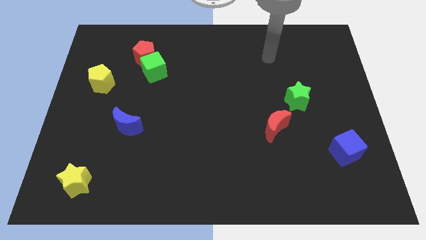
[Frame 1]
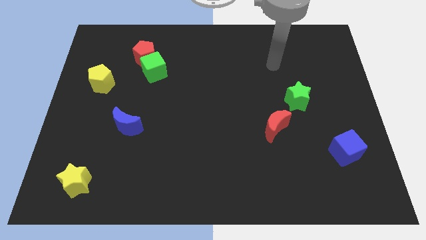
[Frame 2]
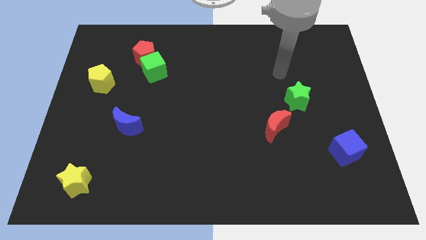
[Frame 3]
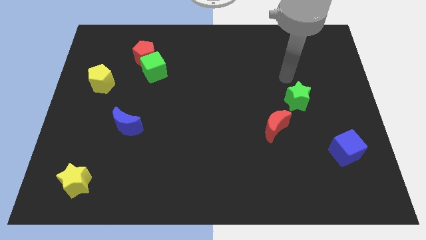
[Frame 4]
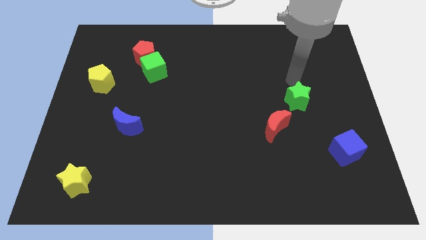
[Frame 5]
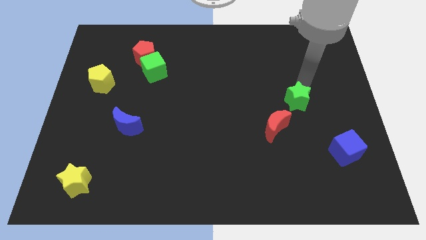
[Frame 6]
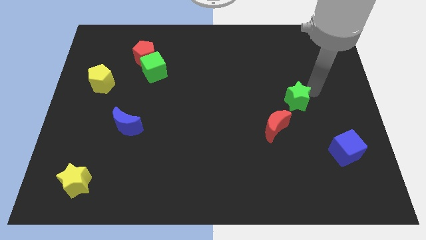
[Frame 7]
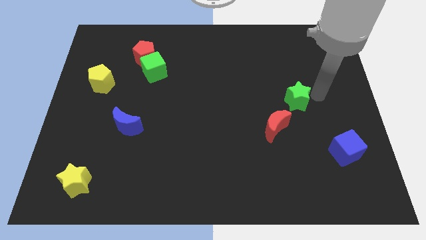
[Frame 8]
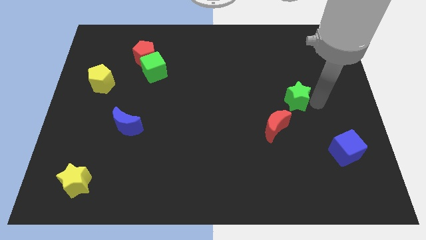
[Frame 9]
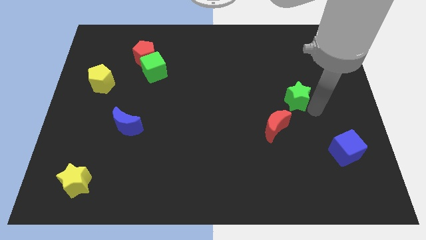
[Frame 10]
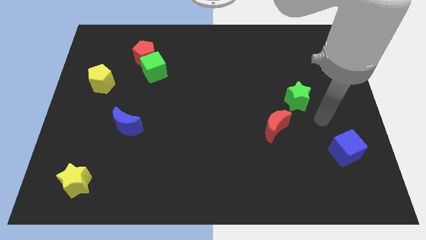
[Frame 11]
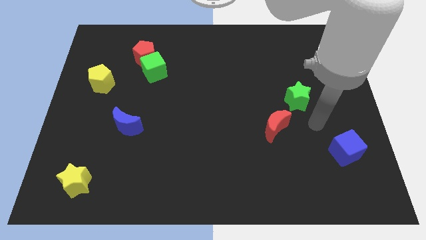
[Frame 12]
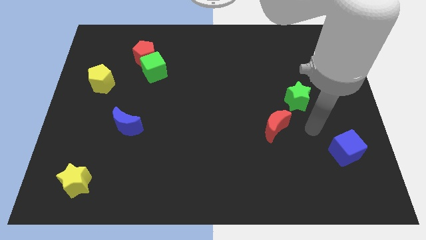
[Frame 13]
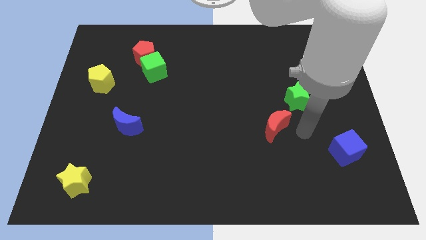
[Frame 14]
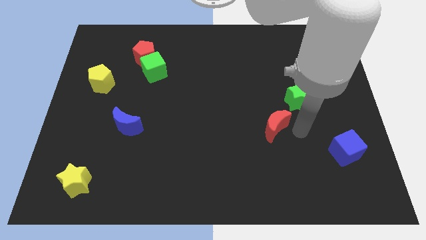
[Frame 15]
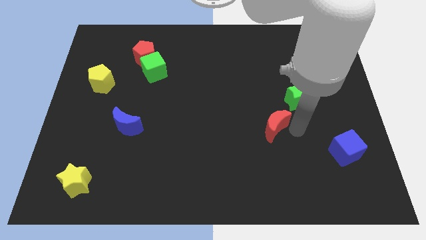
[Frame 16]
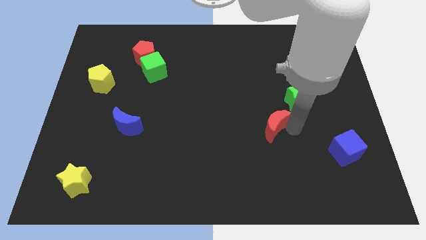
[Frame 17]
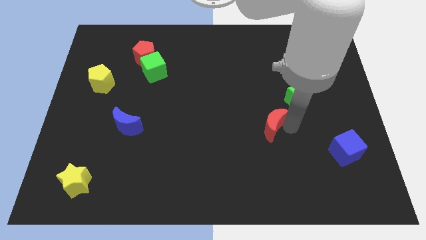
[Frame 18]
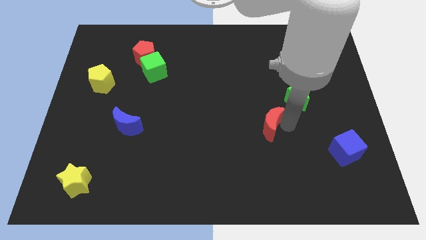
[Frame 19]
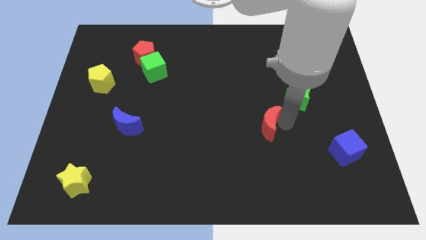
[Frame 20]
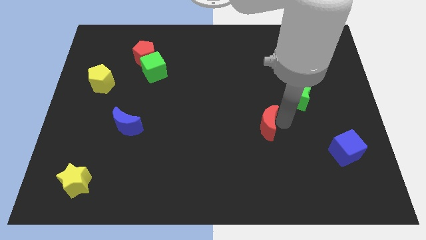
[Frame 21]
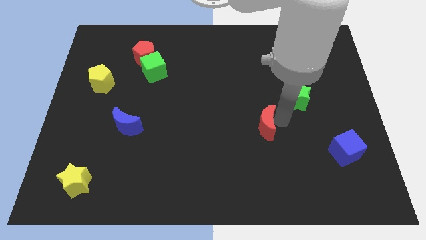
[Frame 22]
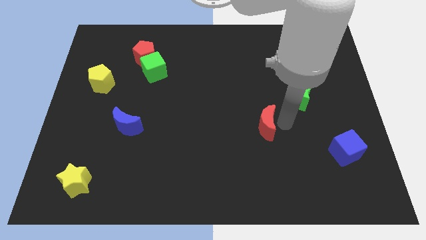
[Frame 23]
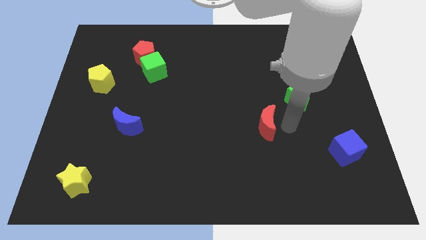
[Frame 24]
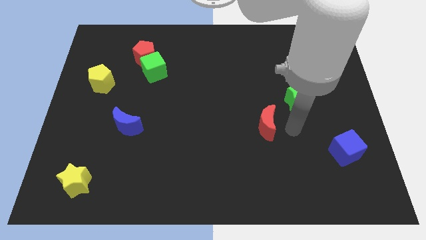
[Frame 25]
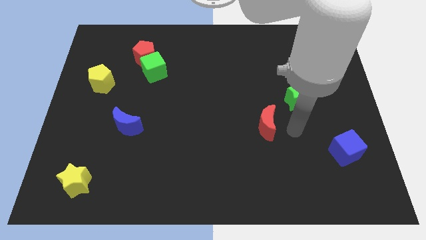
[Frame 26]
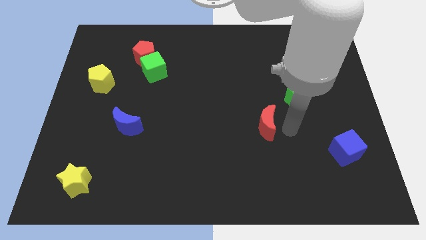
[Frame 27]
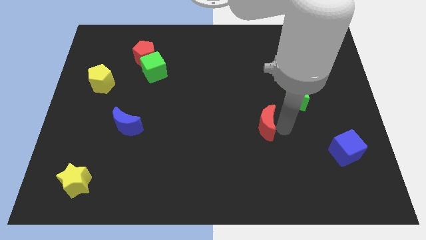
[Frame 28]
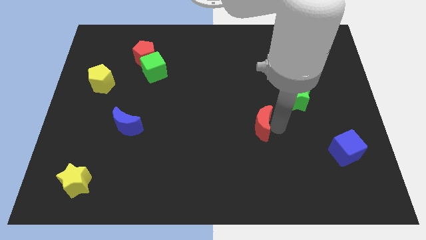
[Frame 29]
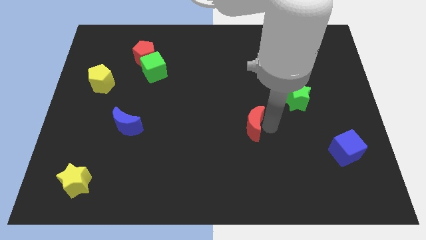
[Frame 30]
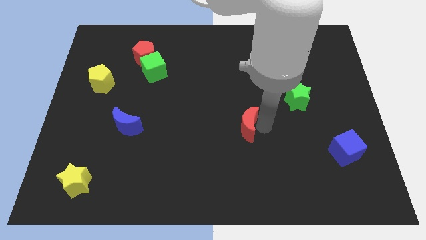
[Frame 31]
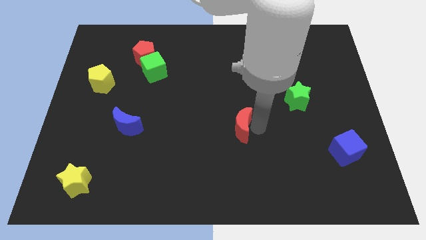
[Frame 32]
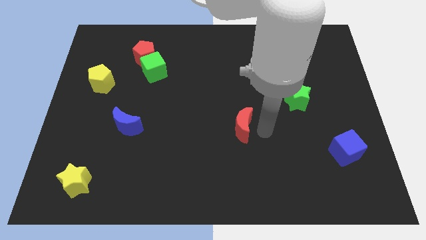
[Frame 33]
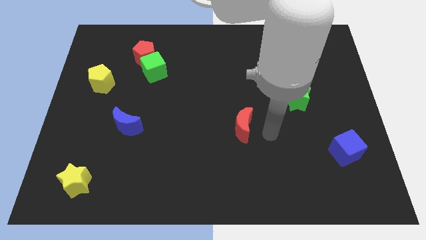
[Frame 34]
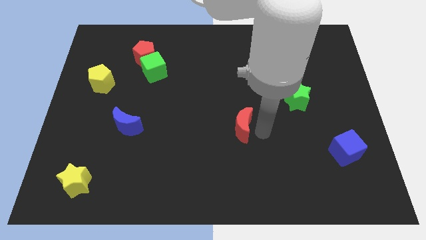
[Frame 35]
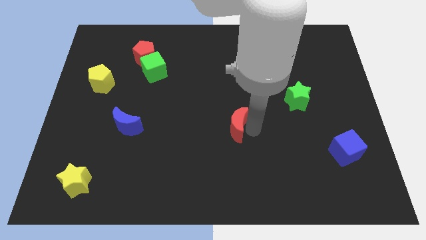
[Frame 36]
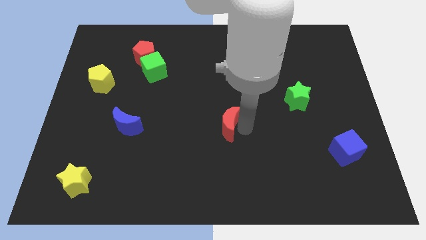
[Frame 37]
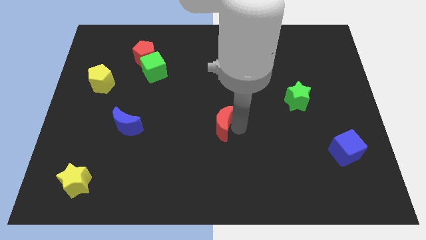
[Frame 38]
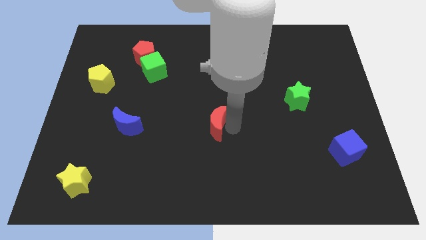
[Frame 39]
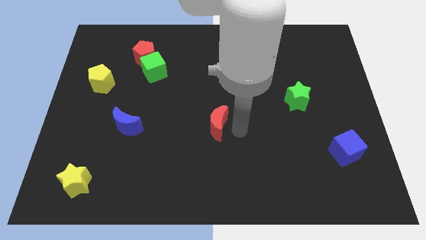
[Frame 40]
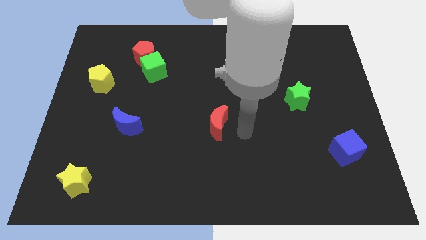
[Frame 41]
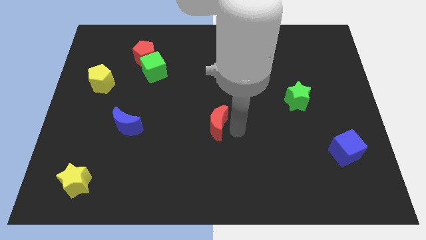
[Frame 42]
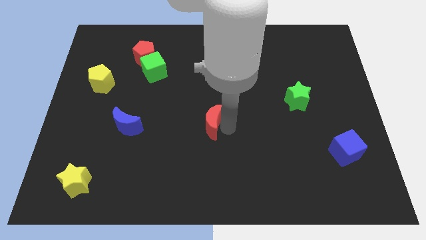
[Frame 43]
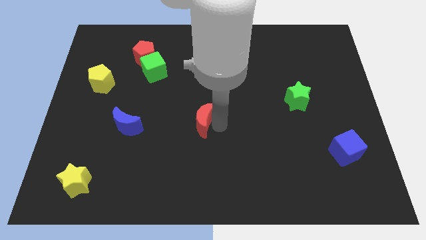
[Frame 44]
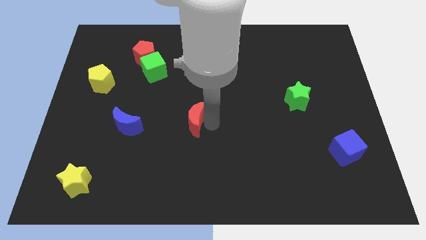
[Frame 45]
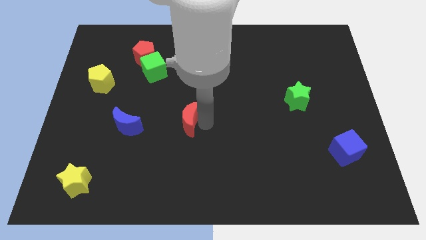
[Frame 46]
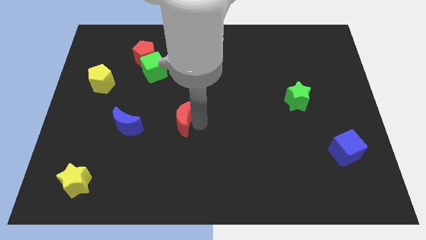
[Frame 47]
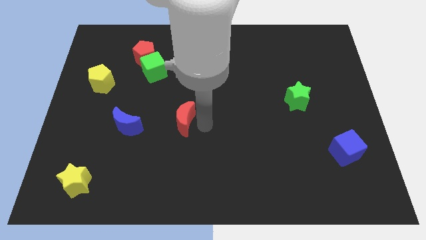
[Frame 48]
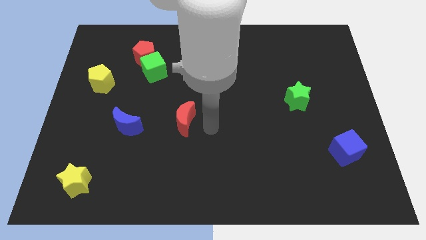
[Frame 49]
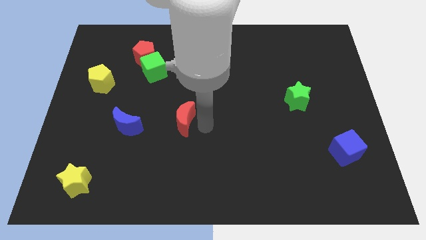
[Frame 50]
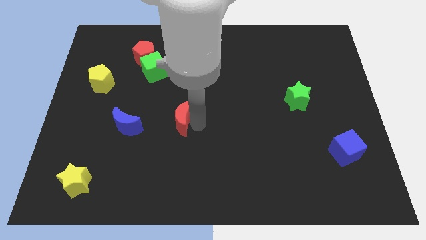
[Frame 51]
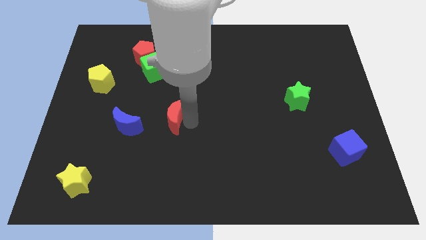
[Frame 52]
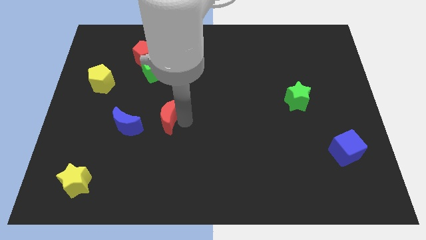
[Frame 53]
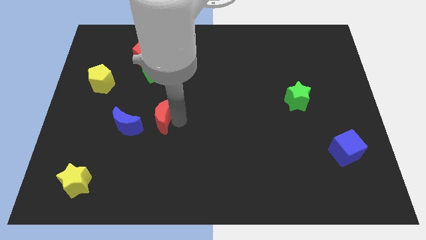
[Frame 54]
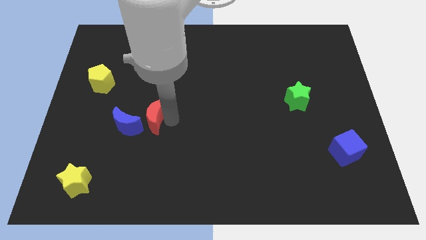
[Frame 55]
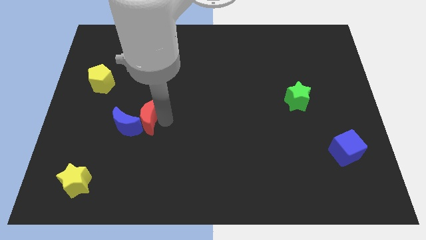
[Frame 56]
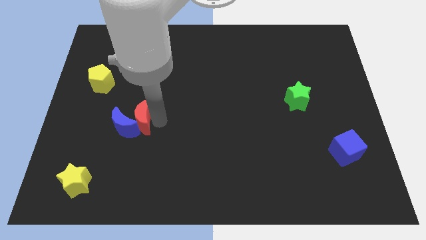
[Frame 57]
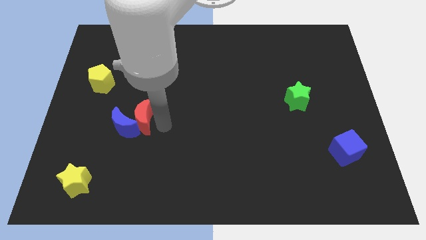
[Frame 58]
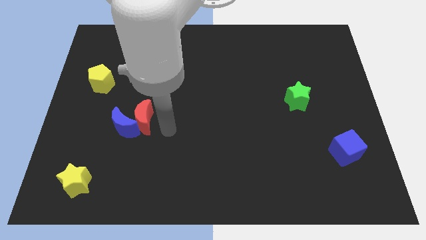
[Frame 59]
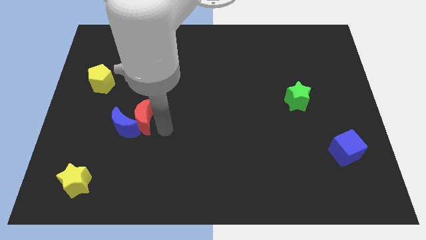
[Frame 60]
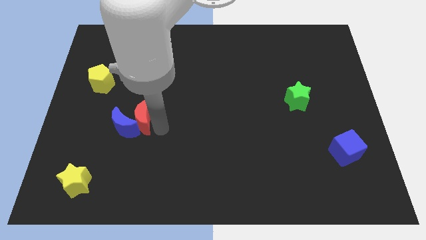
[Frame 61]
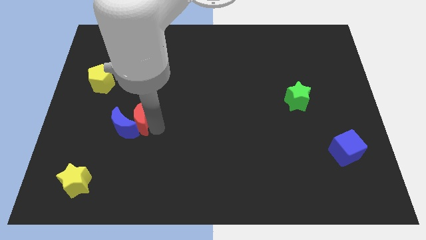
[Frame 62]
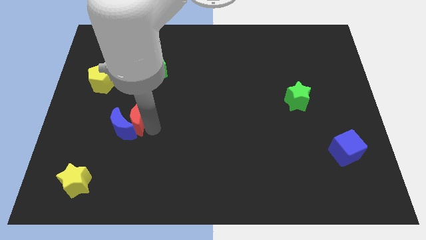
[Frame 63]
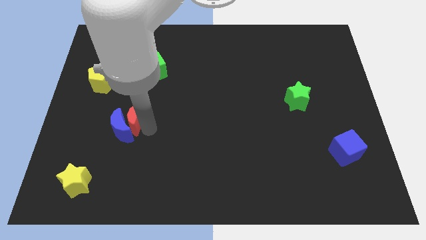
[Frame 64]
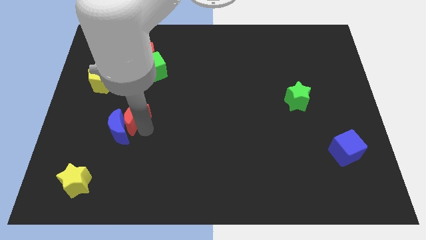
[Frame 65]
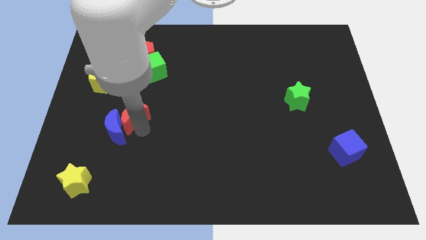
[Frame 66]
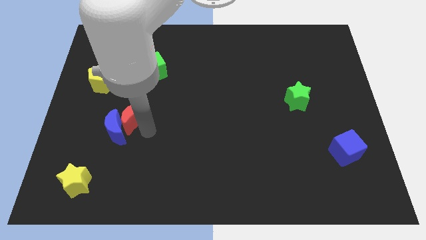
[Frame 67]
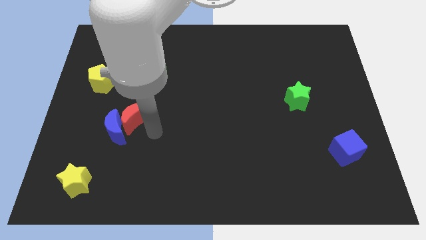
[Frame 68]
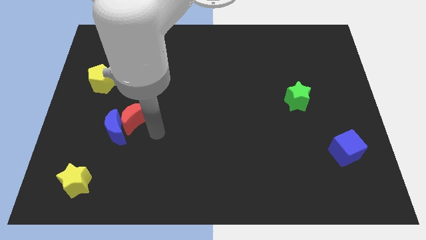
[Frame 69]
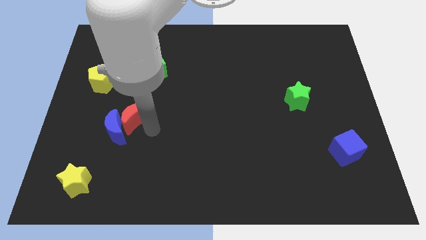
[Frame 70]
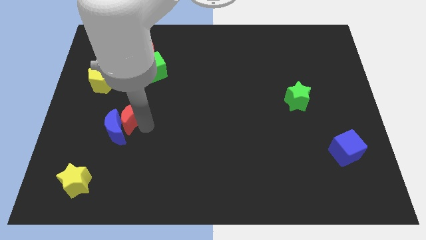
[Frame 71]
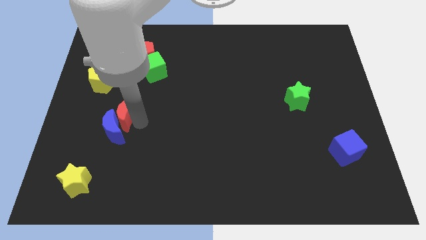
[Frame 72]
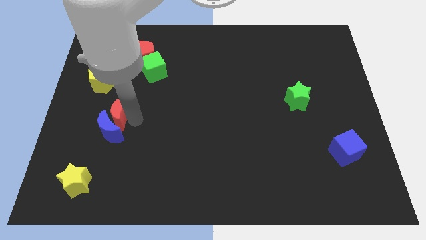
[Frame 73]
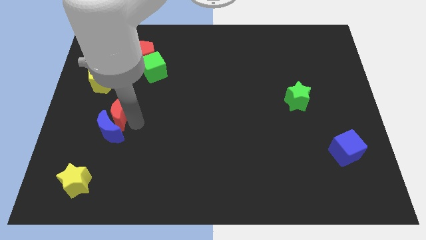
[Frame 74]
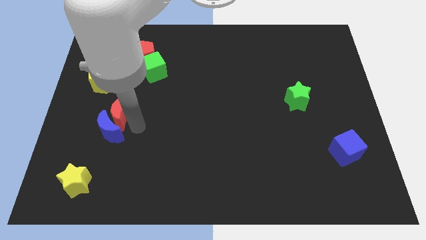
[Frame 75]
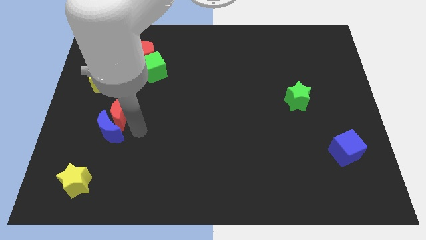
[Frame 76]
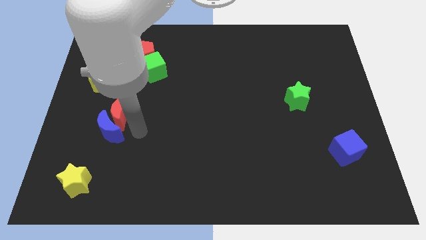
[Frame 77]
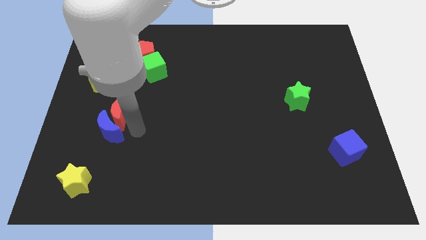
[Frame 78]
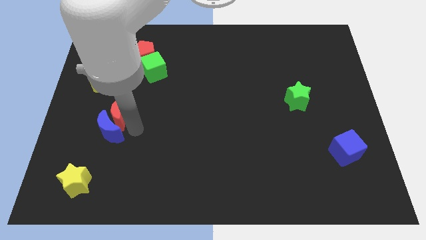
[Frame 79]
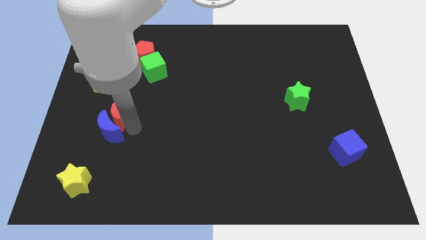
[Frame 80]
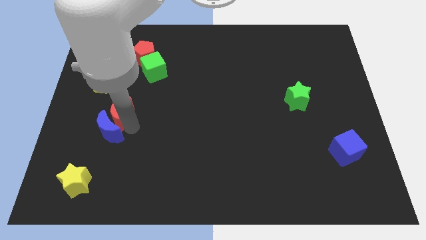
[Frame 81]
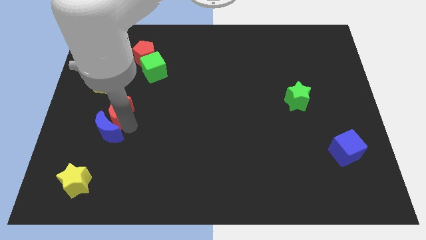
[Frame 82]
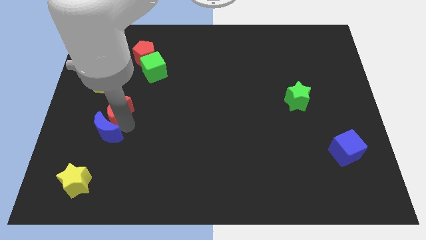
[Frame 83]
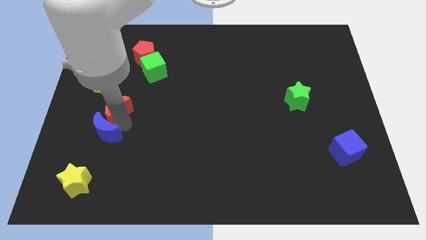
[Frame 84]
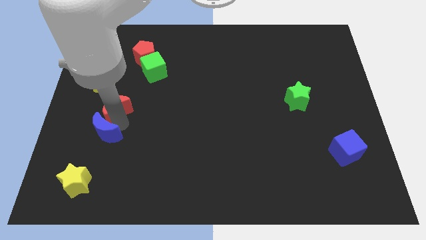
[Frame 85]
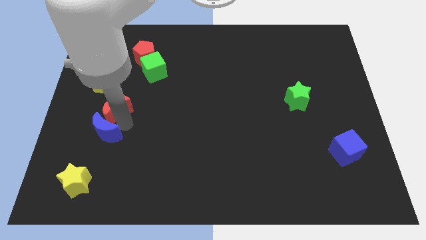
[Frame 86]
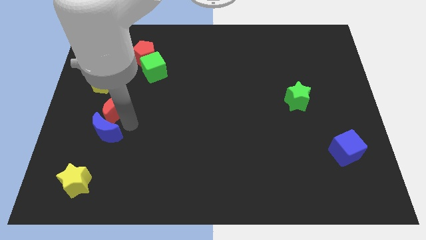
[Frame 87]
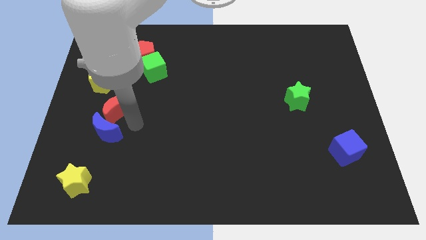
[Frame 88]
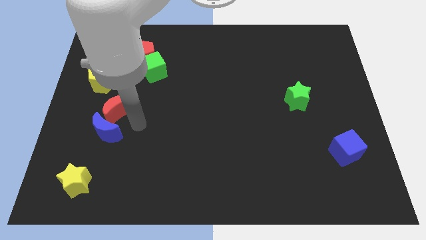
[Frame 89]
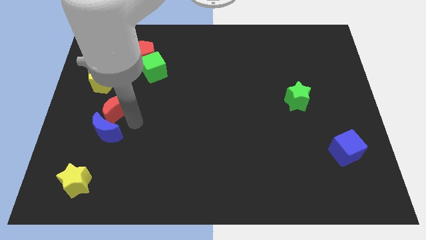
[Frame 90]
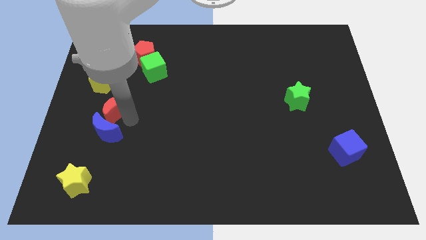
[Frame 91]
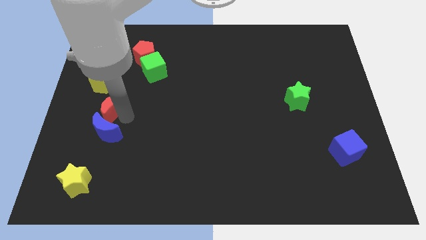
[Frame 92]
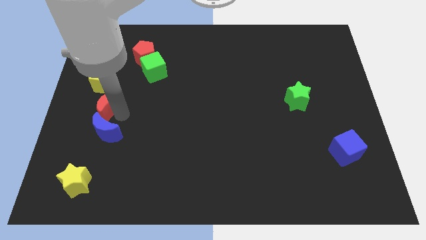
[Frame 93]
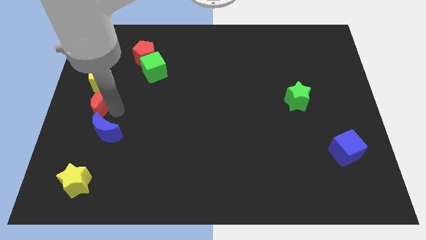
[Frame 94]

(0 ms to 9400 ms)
push the red moon to the left side of the board
